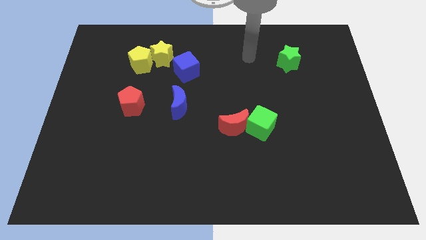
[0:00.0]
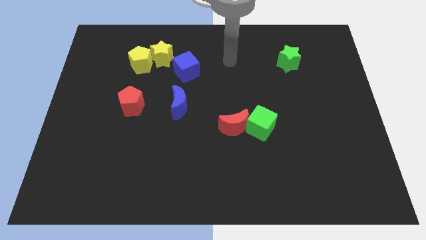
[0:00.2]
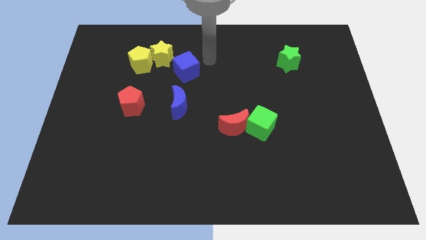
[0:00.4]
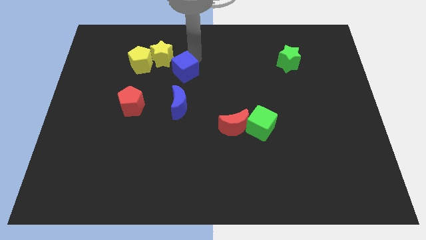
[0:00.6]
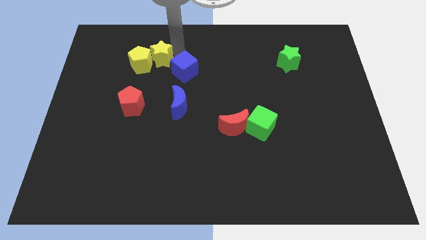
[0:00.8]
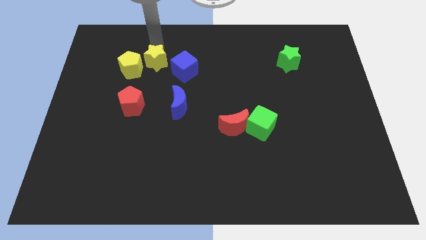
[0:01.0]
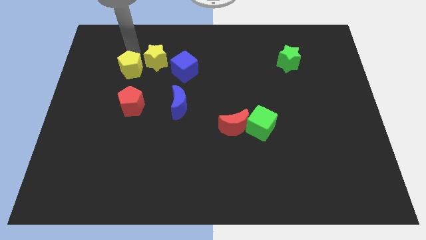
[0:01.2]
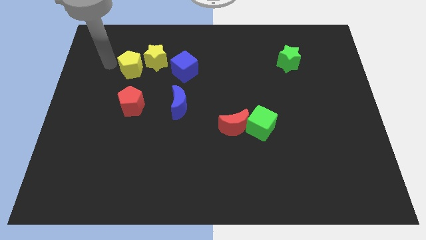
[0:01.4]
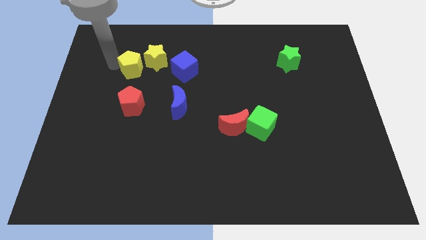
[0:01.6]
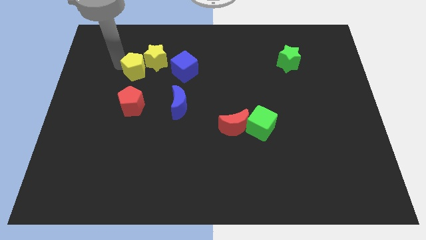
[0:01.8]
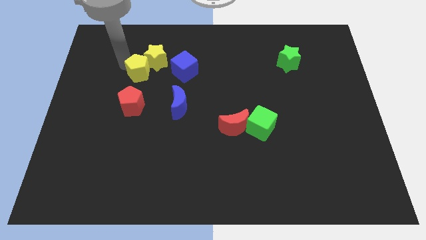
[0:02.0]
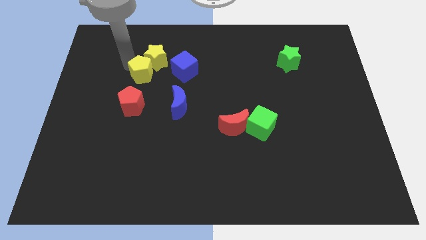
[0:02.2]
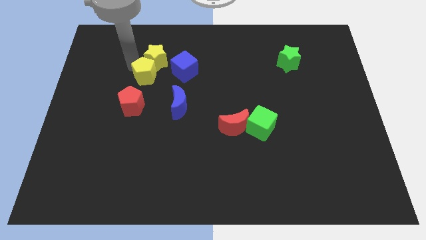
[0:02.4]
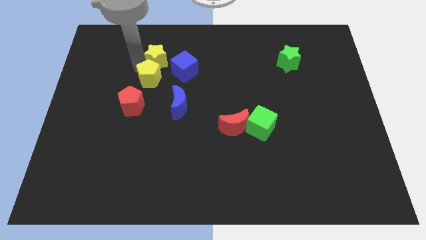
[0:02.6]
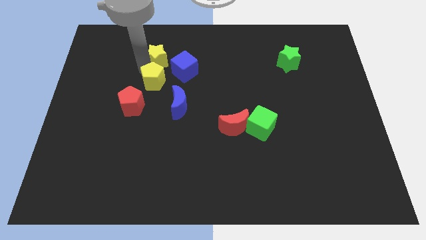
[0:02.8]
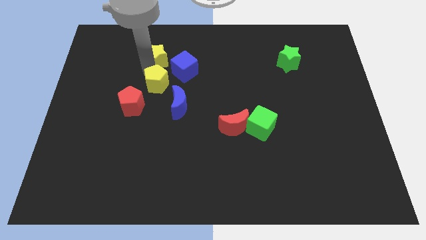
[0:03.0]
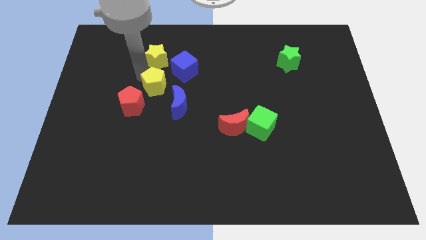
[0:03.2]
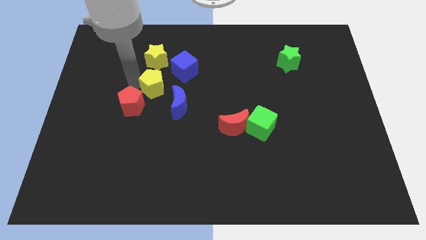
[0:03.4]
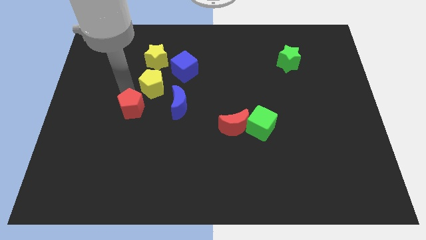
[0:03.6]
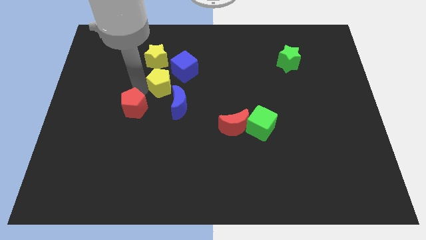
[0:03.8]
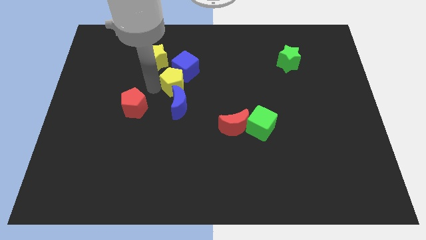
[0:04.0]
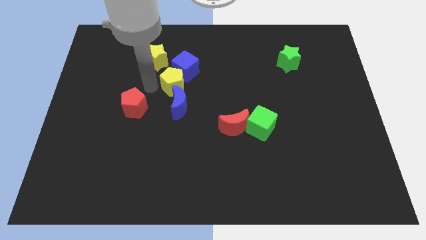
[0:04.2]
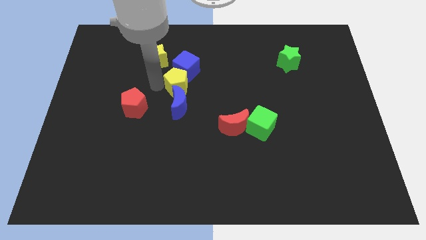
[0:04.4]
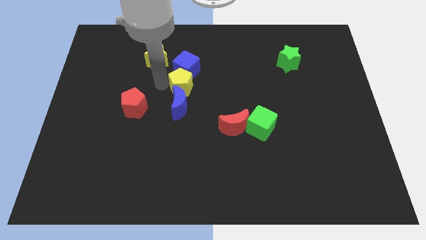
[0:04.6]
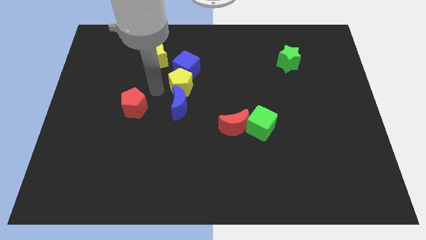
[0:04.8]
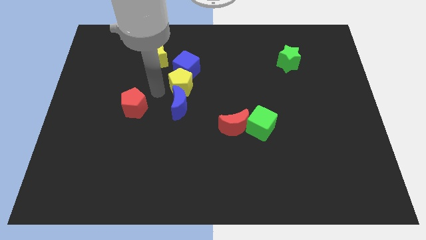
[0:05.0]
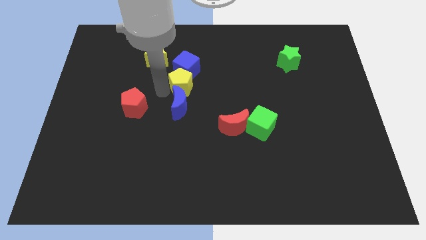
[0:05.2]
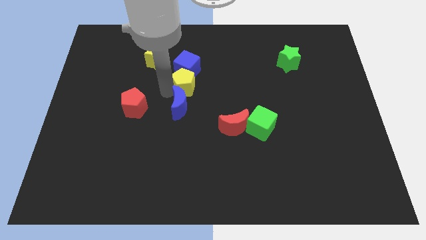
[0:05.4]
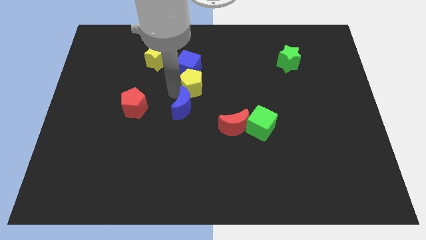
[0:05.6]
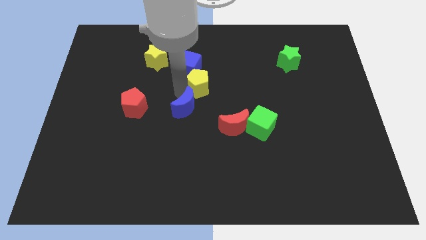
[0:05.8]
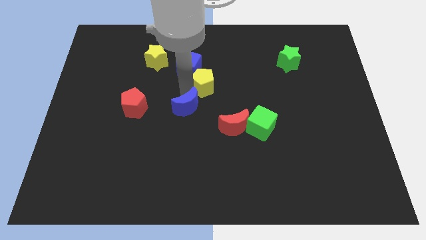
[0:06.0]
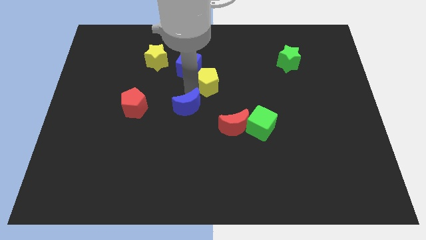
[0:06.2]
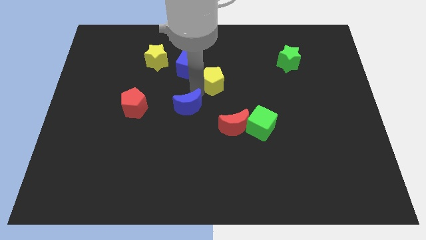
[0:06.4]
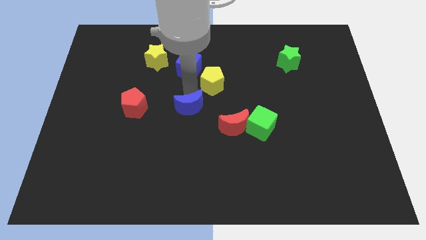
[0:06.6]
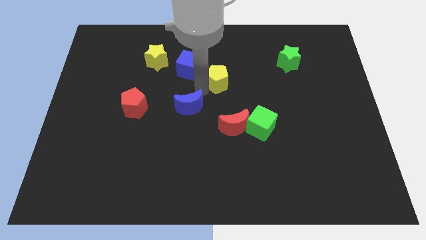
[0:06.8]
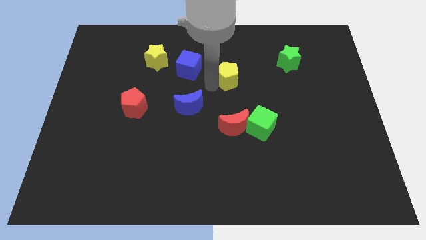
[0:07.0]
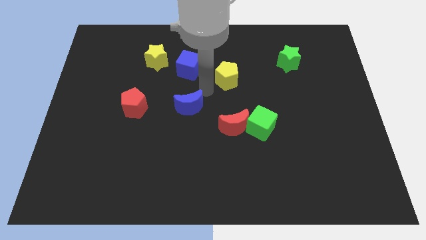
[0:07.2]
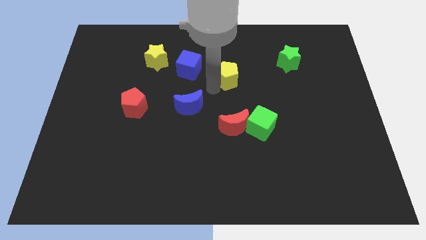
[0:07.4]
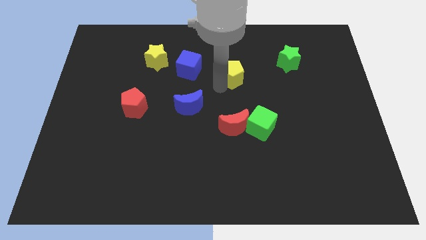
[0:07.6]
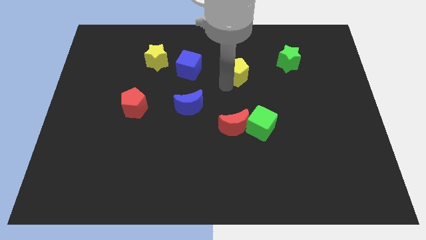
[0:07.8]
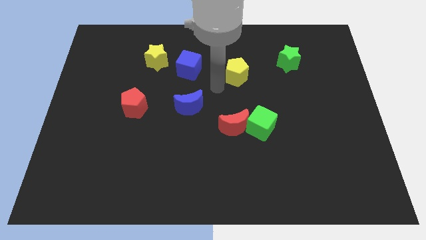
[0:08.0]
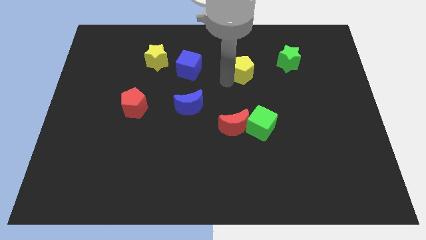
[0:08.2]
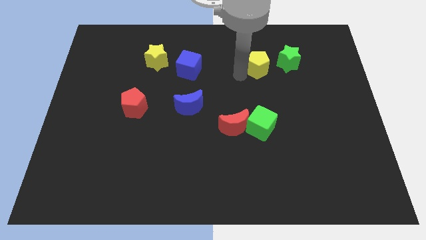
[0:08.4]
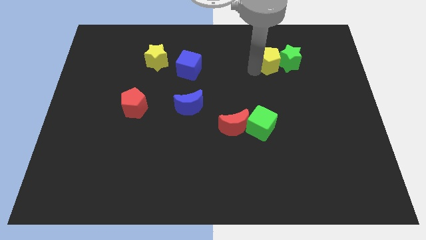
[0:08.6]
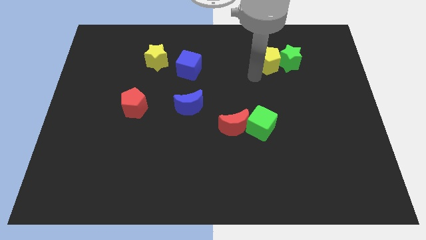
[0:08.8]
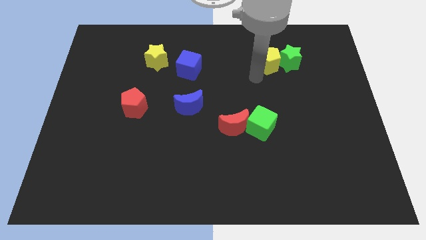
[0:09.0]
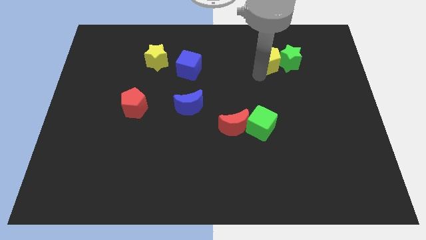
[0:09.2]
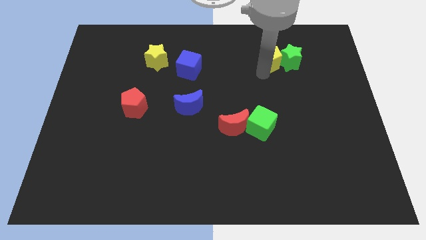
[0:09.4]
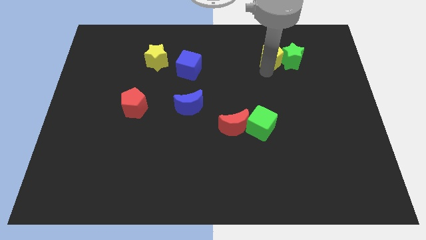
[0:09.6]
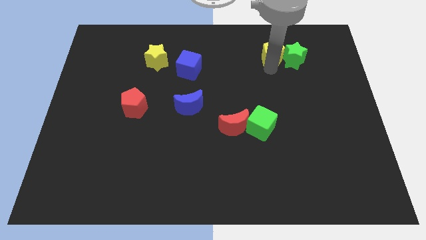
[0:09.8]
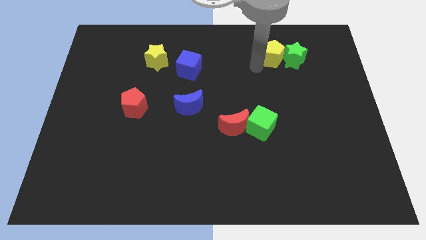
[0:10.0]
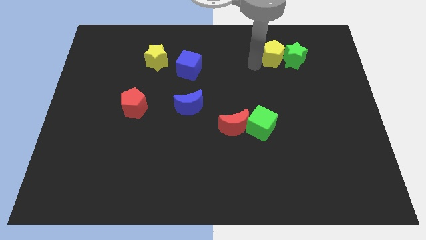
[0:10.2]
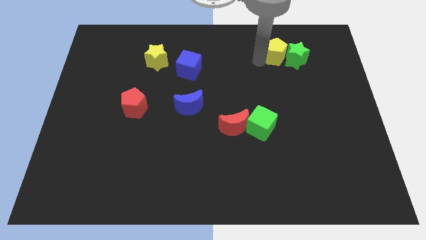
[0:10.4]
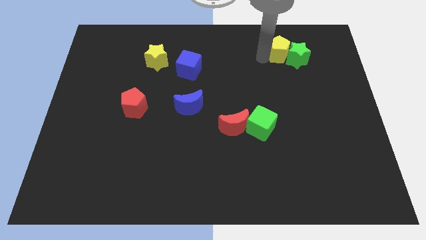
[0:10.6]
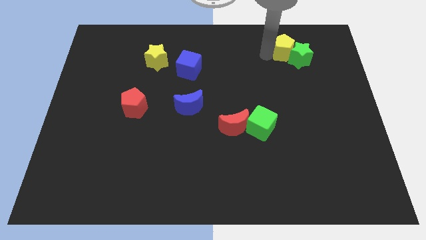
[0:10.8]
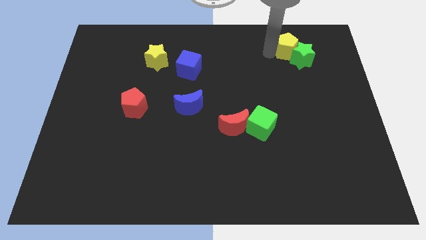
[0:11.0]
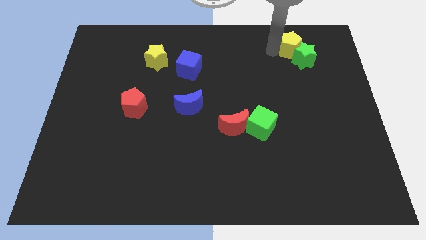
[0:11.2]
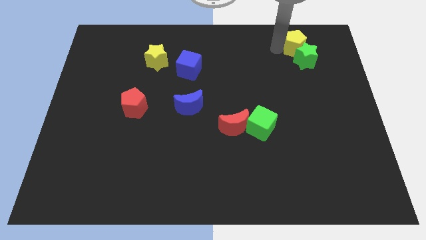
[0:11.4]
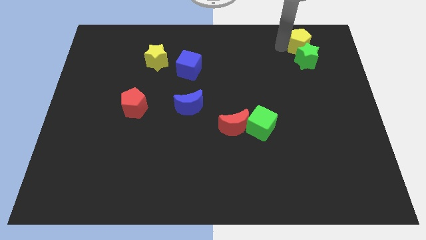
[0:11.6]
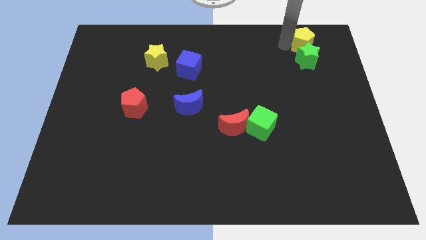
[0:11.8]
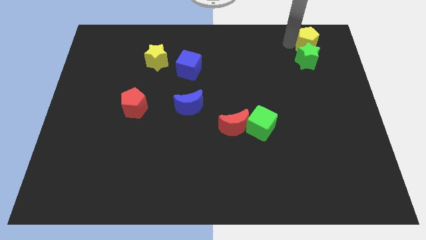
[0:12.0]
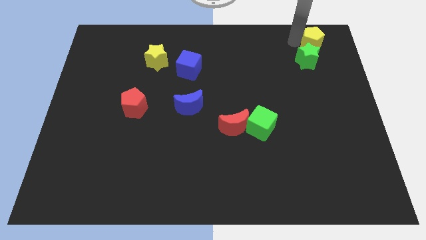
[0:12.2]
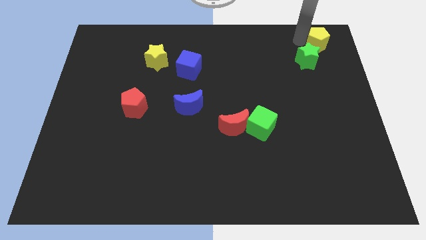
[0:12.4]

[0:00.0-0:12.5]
push the yellow pentagon to the top right

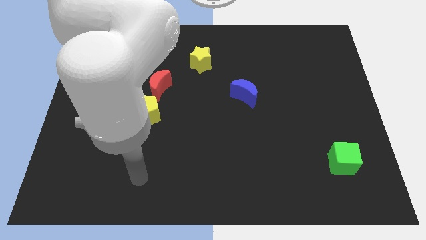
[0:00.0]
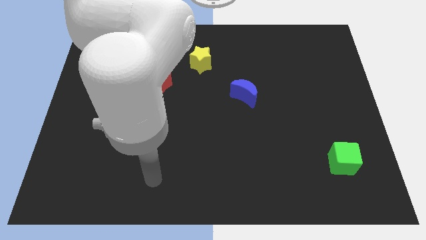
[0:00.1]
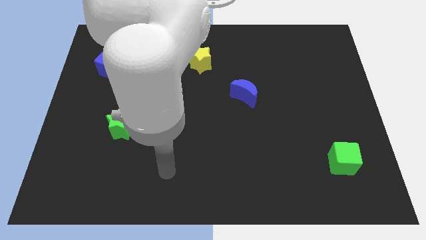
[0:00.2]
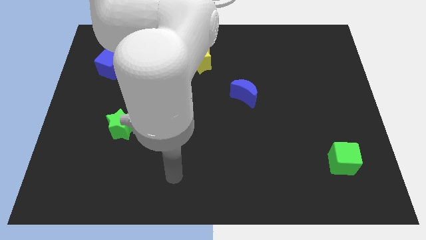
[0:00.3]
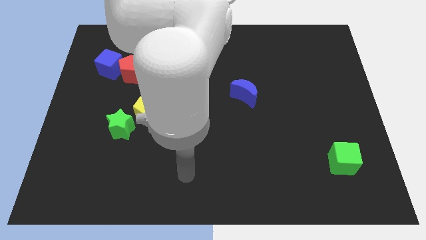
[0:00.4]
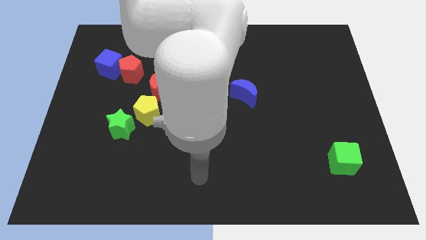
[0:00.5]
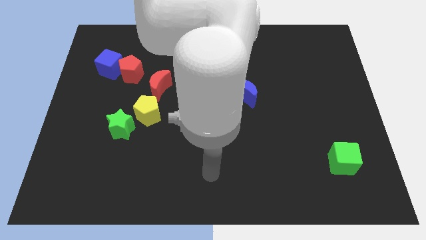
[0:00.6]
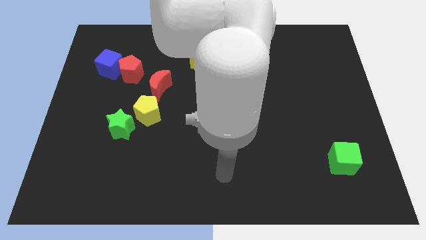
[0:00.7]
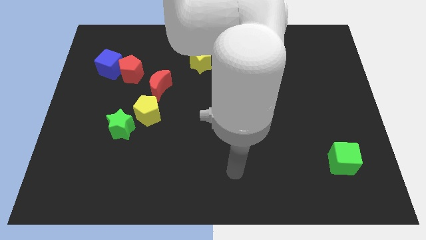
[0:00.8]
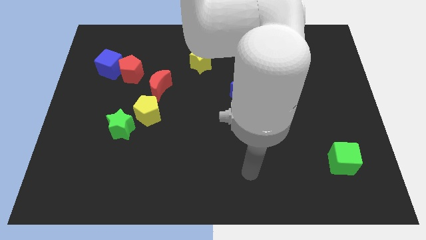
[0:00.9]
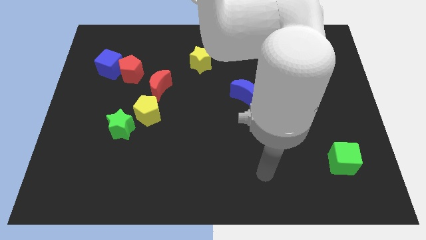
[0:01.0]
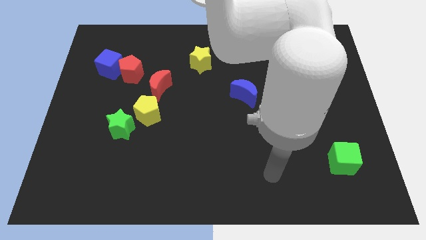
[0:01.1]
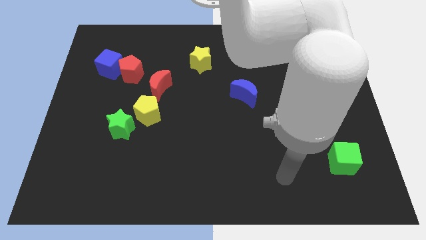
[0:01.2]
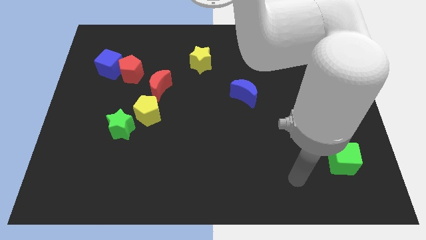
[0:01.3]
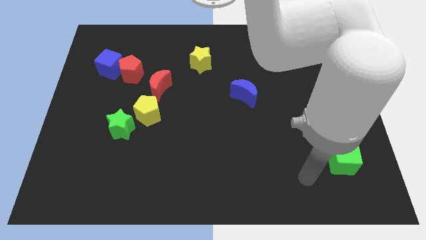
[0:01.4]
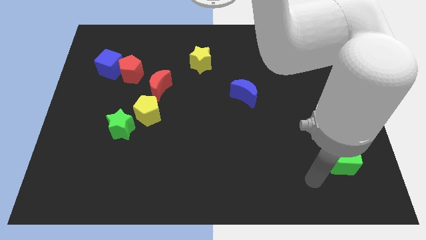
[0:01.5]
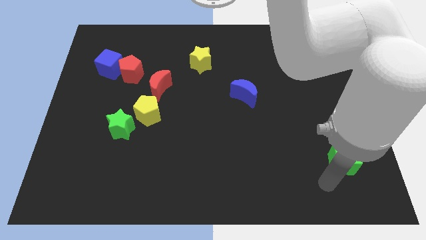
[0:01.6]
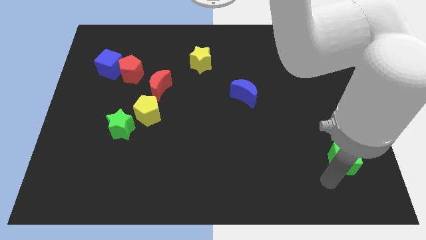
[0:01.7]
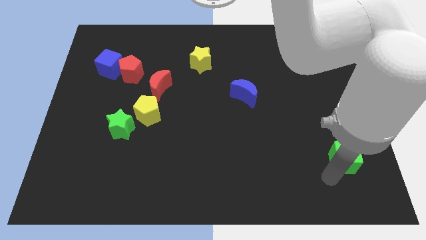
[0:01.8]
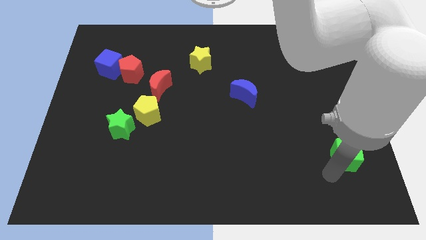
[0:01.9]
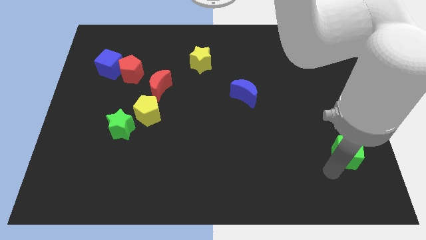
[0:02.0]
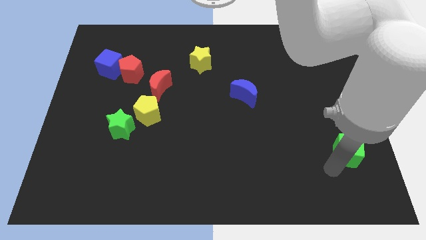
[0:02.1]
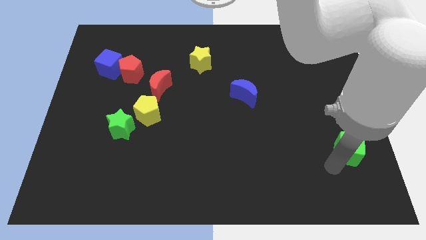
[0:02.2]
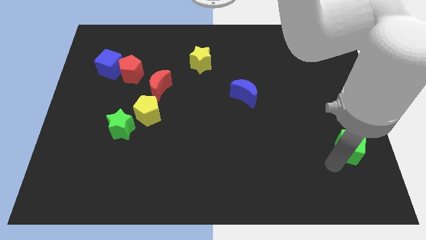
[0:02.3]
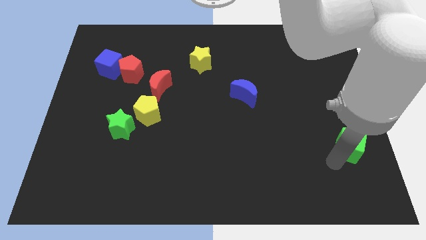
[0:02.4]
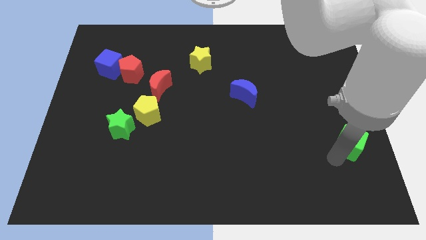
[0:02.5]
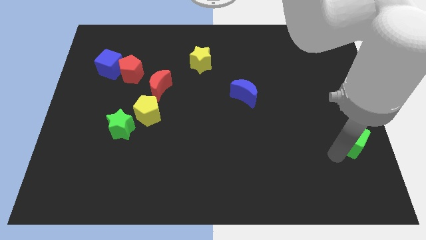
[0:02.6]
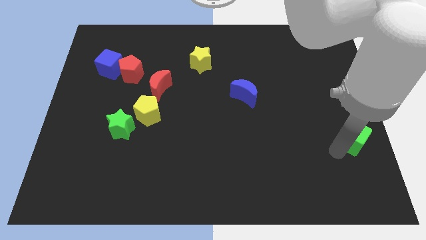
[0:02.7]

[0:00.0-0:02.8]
move the green cube to the center right
